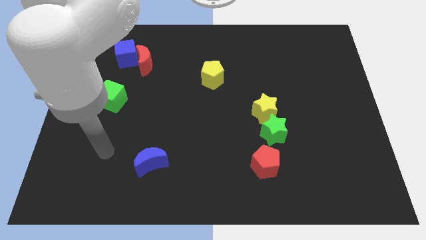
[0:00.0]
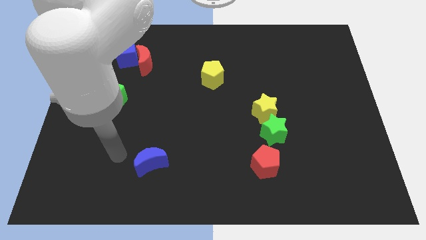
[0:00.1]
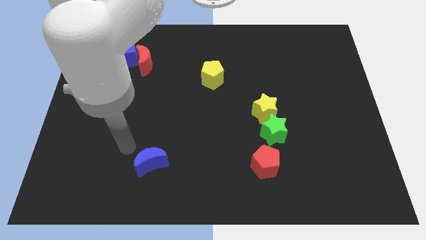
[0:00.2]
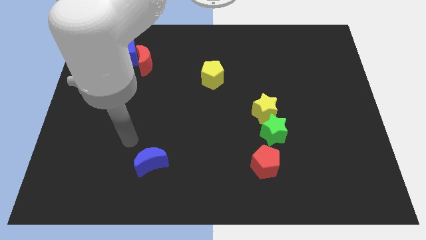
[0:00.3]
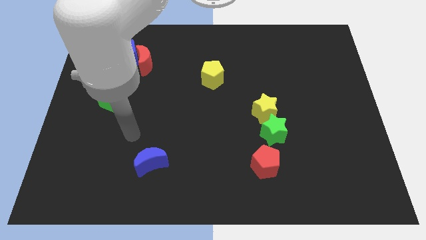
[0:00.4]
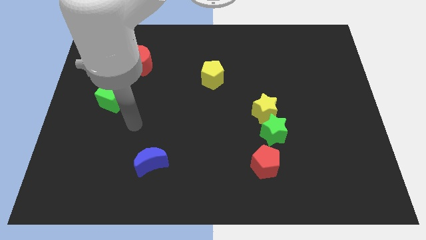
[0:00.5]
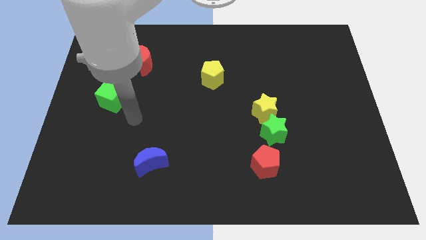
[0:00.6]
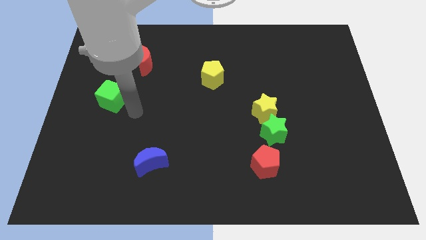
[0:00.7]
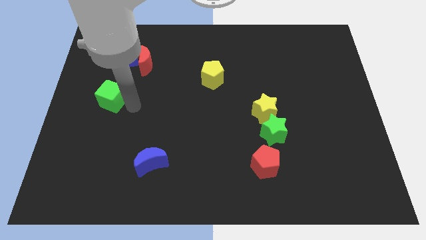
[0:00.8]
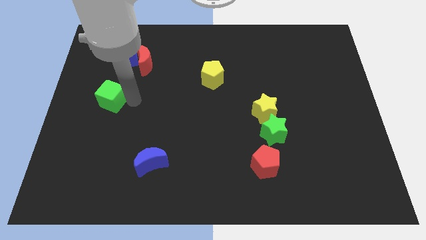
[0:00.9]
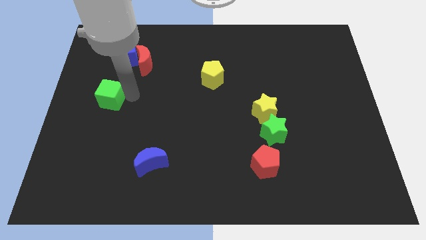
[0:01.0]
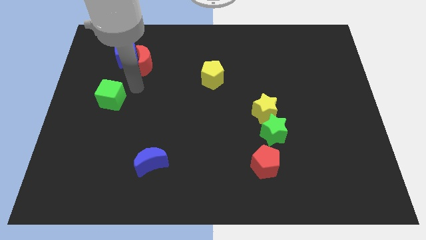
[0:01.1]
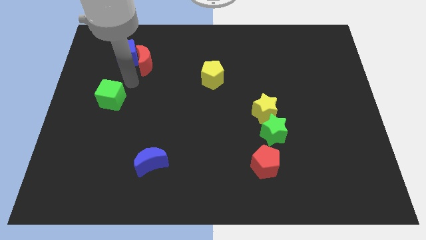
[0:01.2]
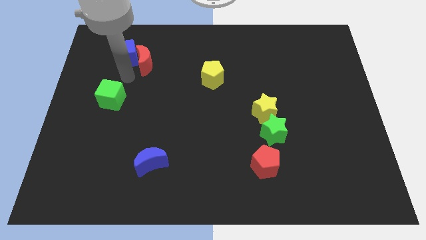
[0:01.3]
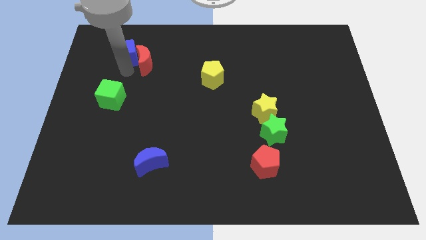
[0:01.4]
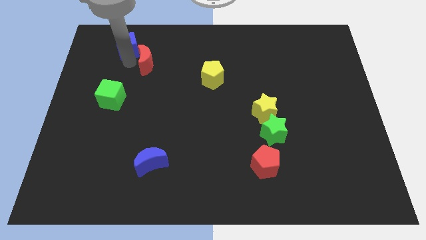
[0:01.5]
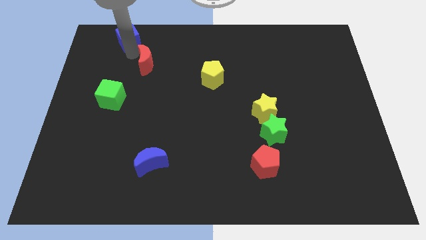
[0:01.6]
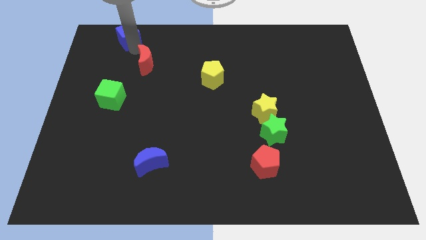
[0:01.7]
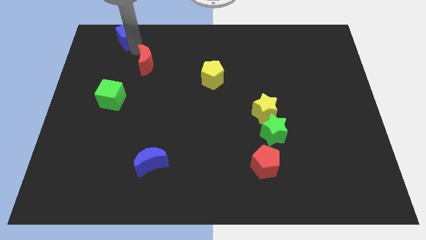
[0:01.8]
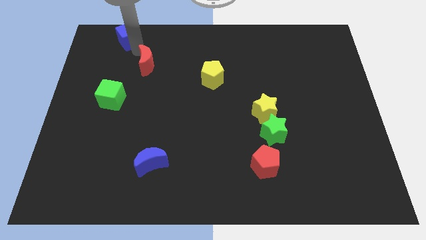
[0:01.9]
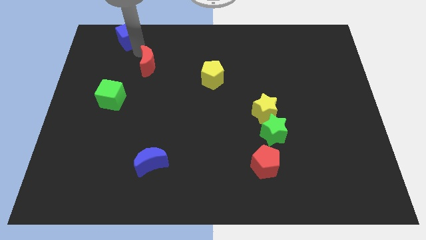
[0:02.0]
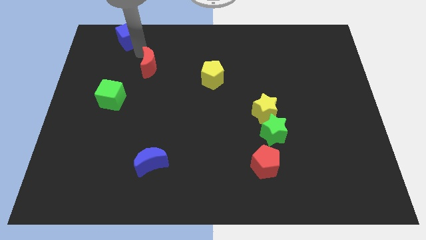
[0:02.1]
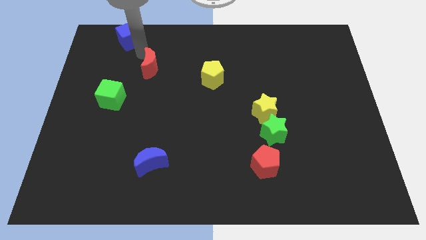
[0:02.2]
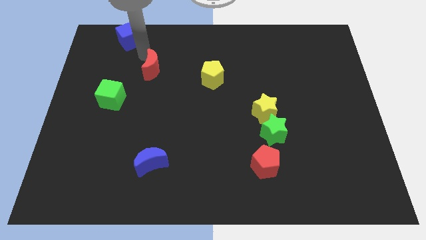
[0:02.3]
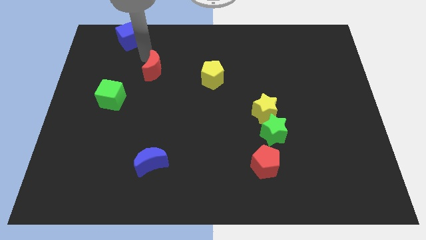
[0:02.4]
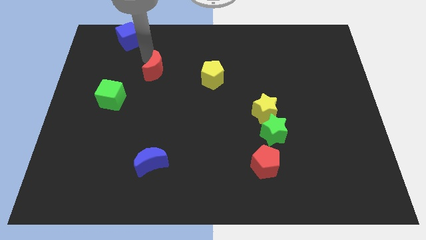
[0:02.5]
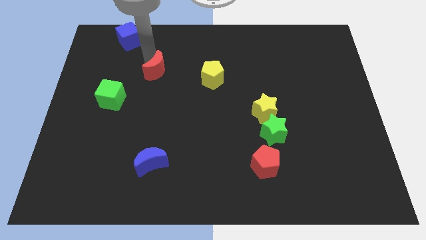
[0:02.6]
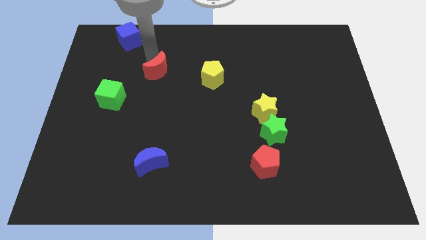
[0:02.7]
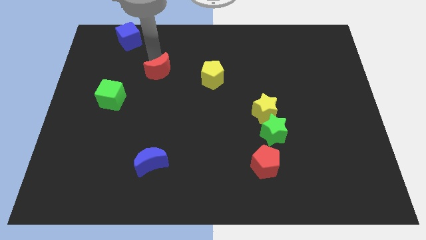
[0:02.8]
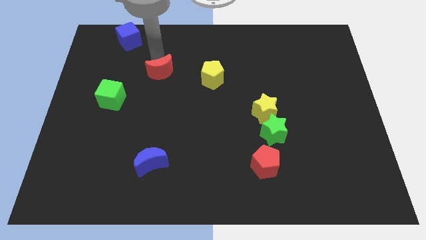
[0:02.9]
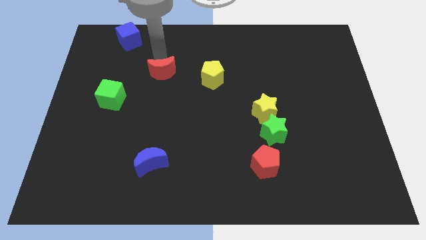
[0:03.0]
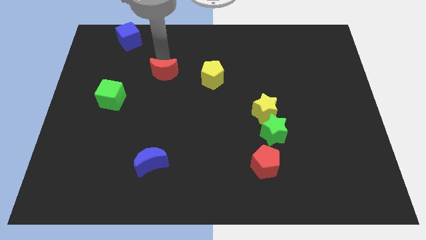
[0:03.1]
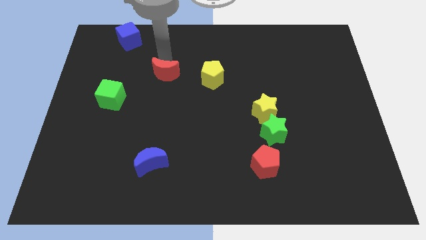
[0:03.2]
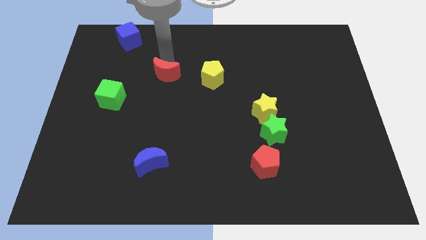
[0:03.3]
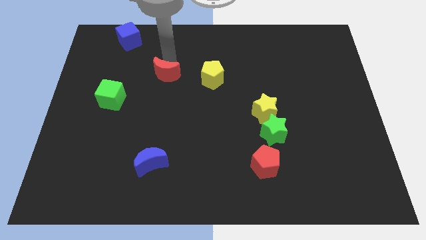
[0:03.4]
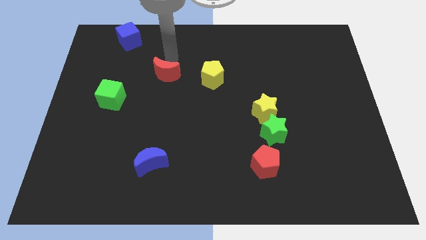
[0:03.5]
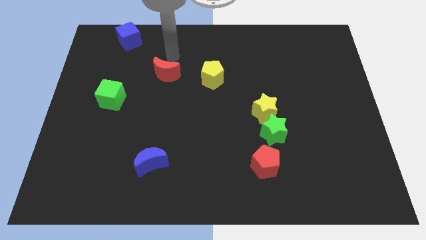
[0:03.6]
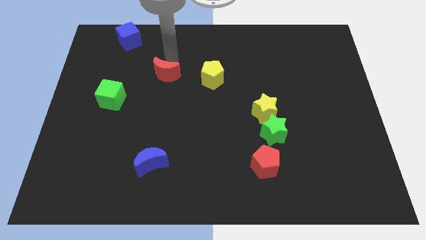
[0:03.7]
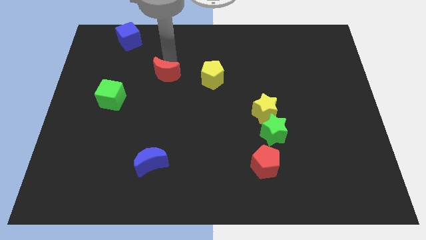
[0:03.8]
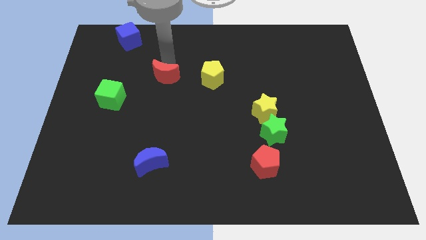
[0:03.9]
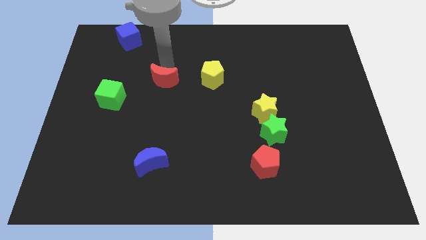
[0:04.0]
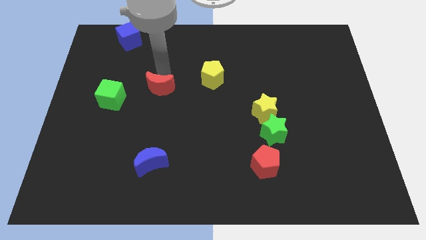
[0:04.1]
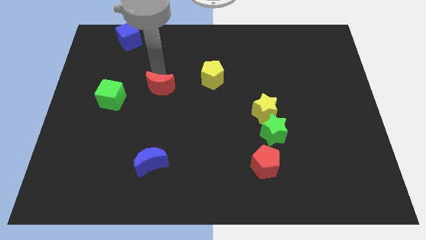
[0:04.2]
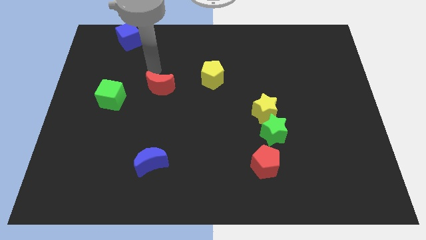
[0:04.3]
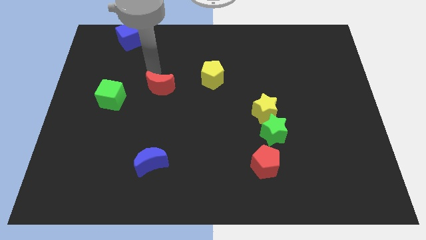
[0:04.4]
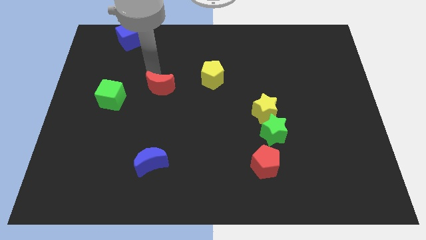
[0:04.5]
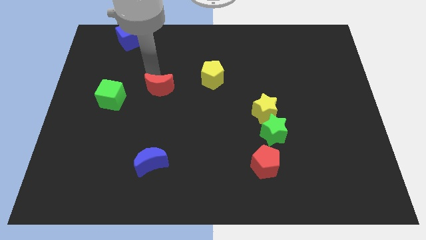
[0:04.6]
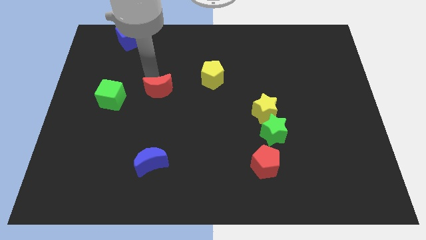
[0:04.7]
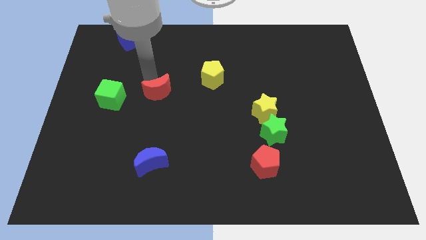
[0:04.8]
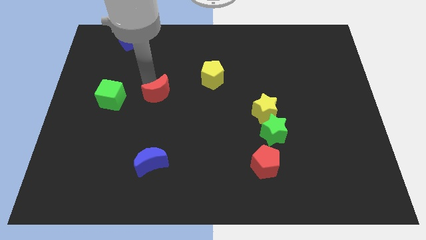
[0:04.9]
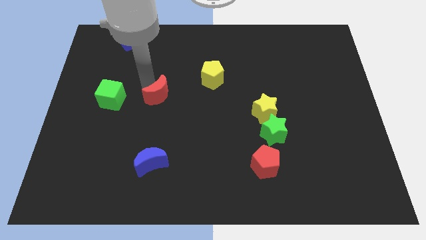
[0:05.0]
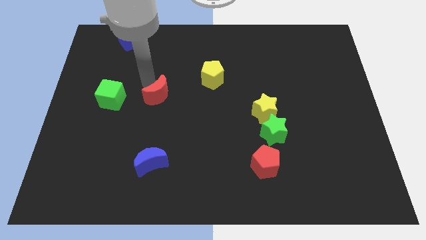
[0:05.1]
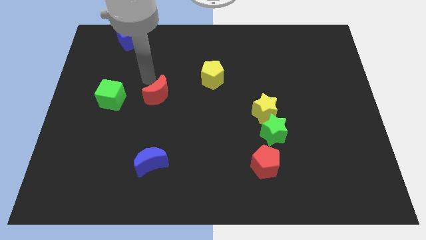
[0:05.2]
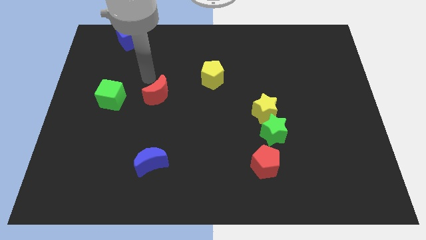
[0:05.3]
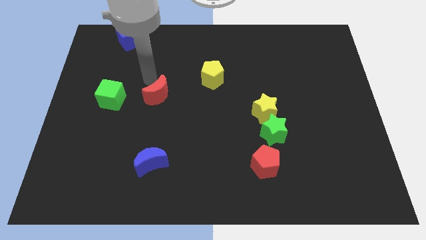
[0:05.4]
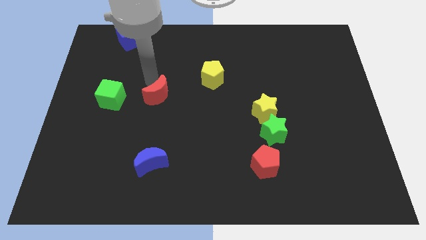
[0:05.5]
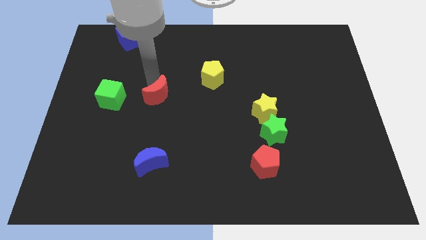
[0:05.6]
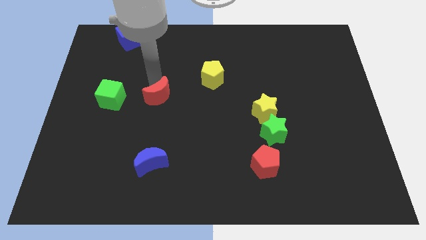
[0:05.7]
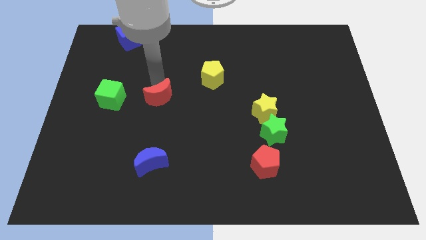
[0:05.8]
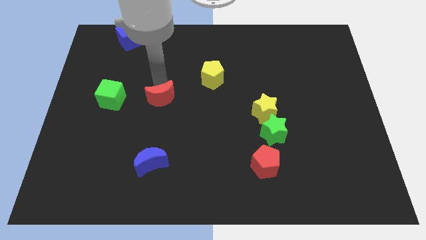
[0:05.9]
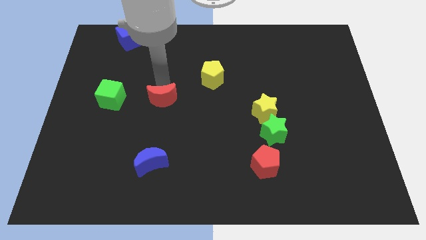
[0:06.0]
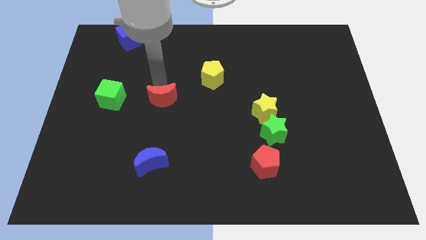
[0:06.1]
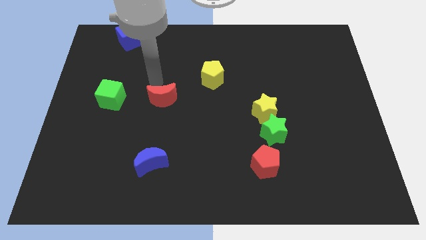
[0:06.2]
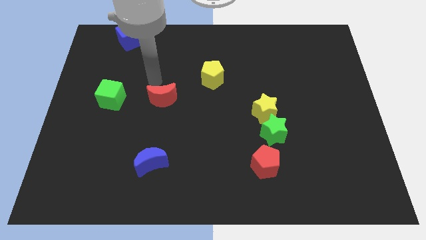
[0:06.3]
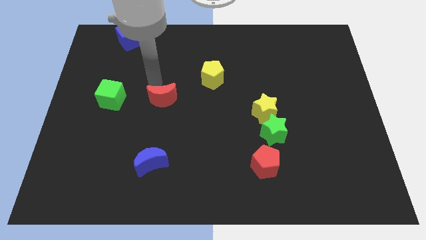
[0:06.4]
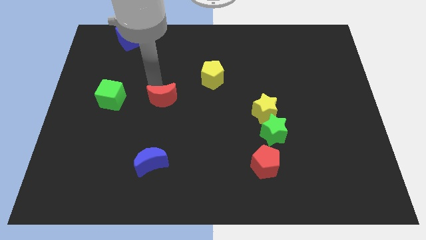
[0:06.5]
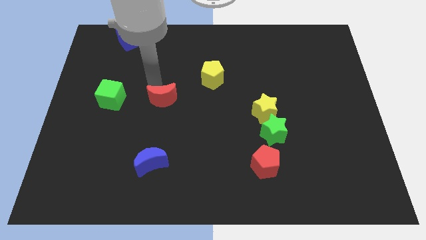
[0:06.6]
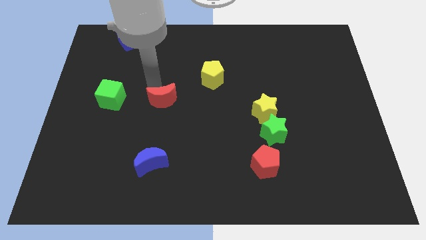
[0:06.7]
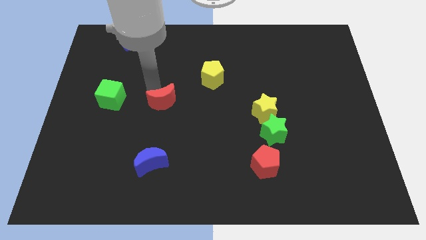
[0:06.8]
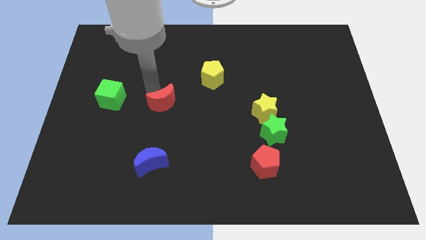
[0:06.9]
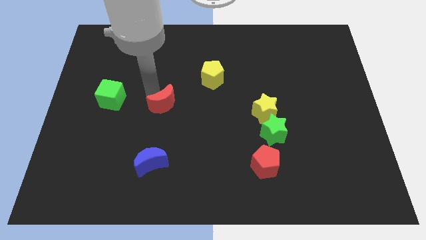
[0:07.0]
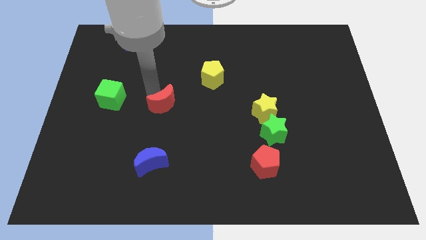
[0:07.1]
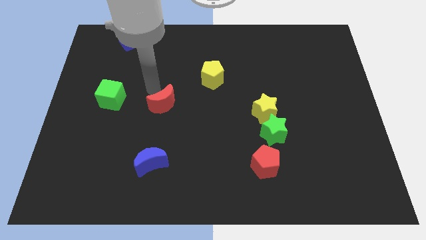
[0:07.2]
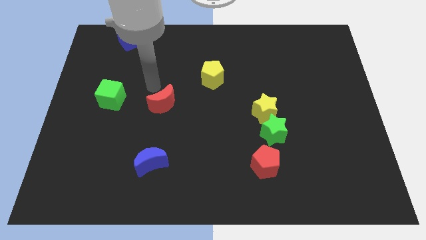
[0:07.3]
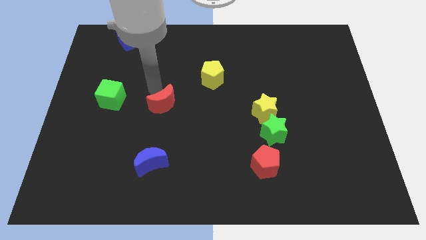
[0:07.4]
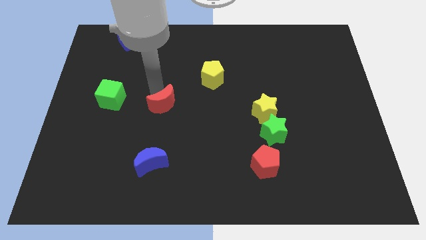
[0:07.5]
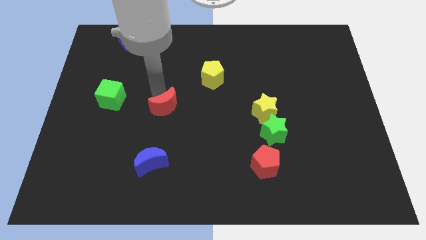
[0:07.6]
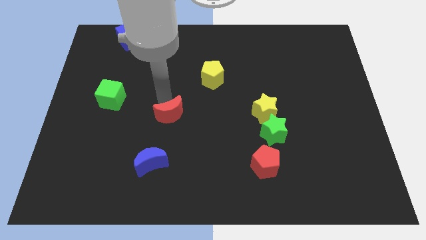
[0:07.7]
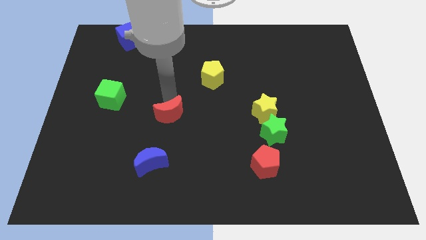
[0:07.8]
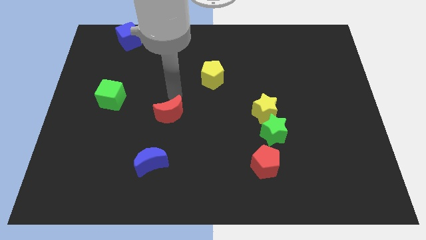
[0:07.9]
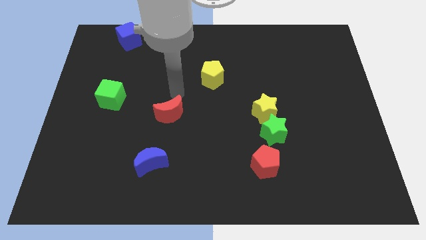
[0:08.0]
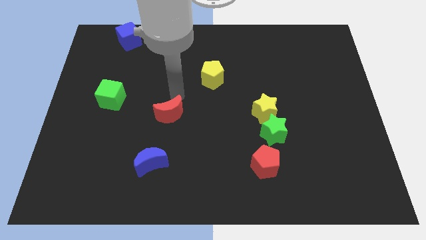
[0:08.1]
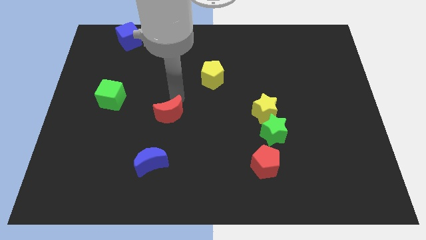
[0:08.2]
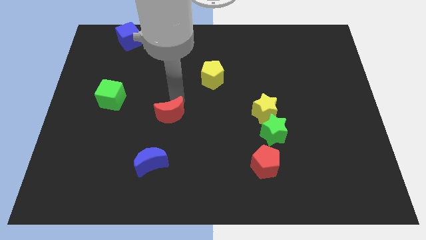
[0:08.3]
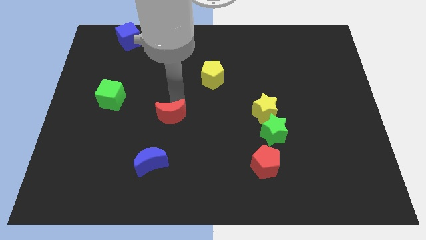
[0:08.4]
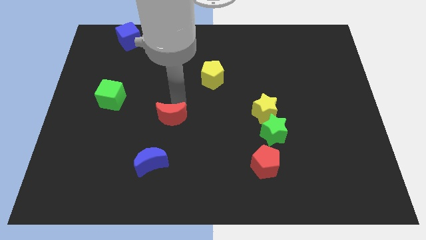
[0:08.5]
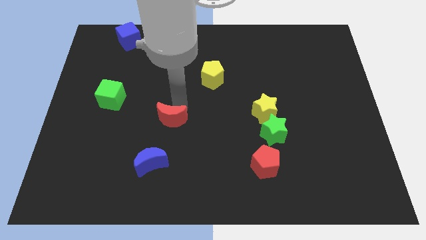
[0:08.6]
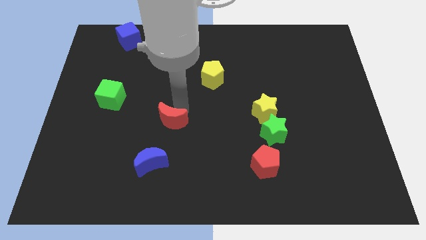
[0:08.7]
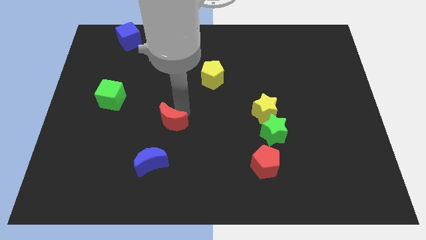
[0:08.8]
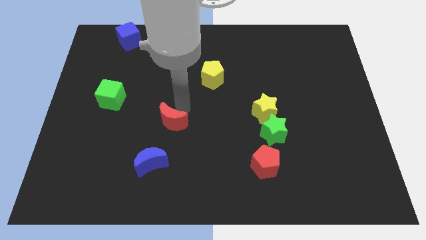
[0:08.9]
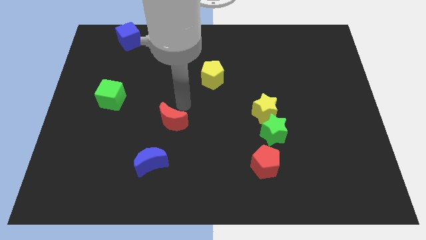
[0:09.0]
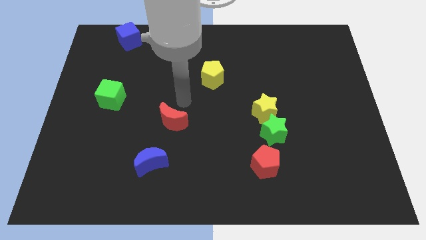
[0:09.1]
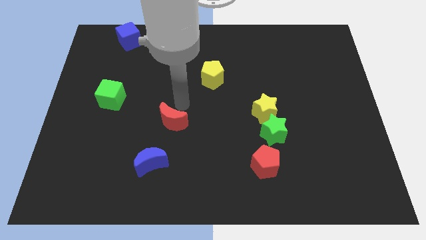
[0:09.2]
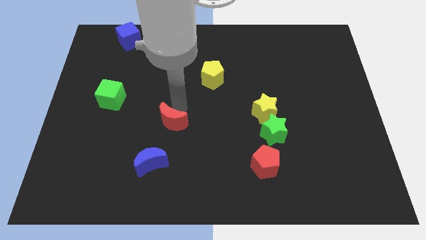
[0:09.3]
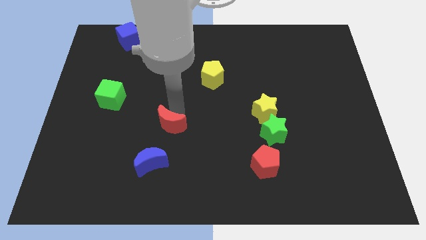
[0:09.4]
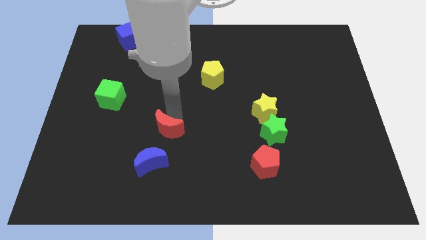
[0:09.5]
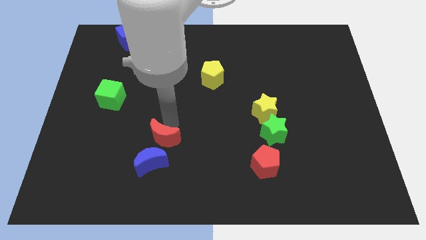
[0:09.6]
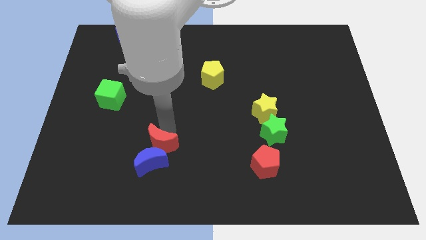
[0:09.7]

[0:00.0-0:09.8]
push the red moon towards the blue moon
